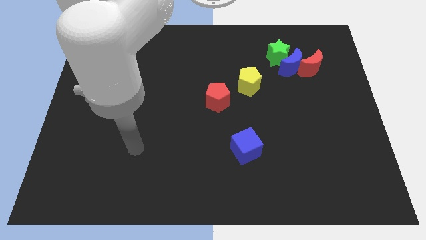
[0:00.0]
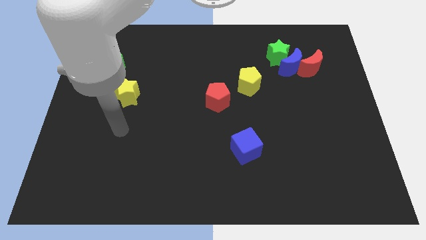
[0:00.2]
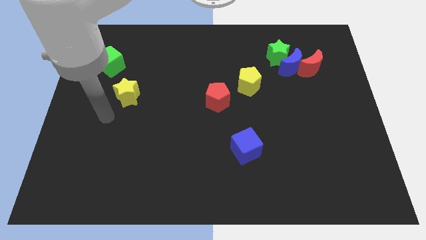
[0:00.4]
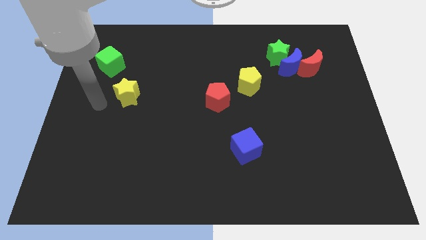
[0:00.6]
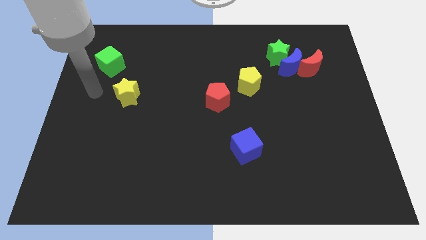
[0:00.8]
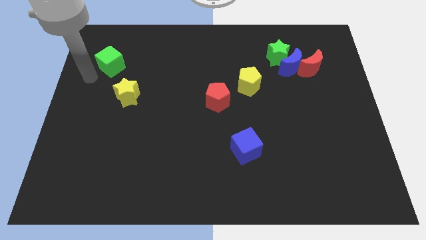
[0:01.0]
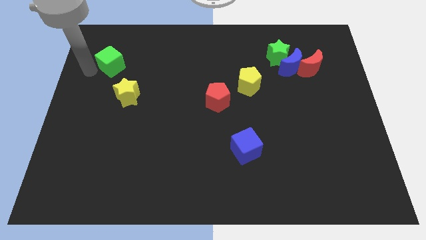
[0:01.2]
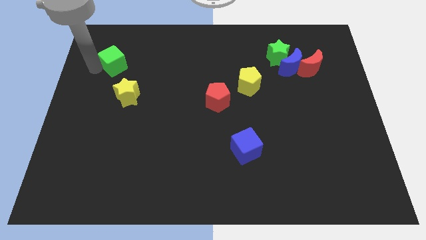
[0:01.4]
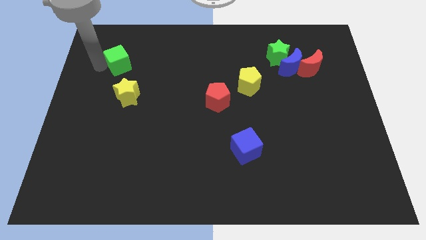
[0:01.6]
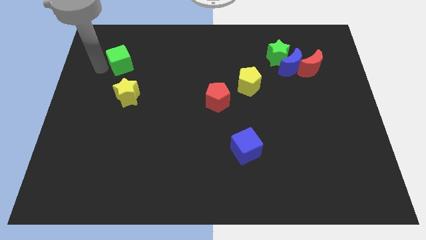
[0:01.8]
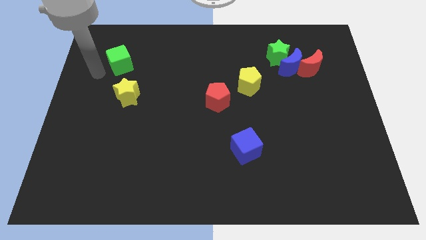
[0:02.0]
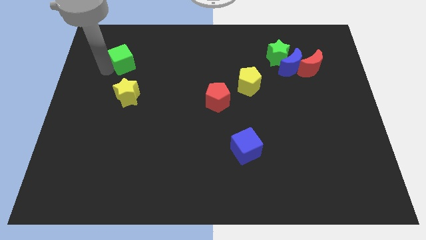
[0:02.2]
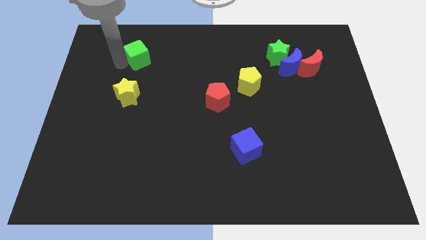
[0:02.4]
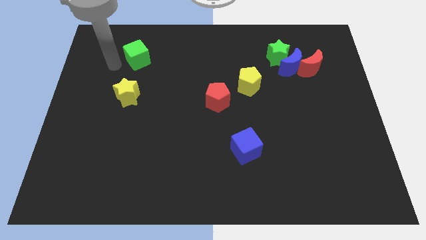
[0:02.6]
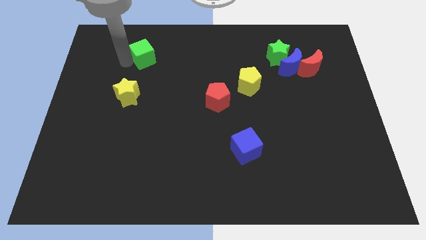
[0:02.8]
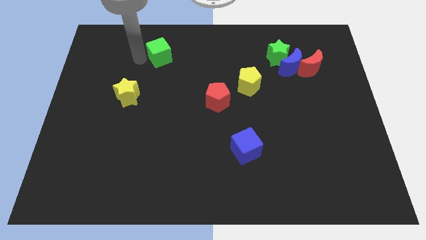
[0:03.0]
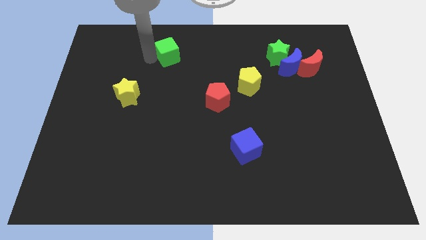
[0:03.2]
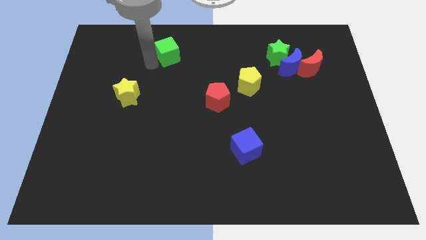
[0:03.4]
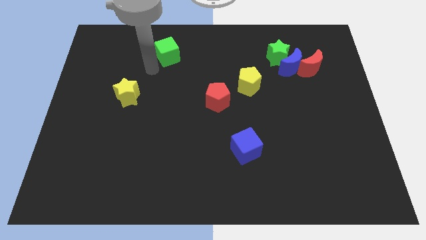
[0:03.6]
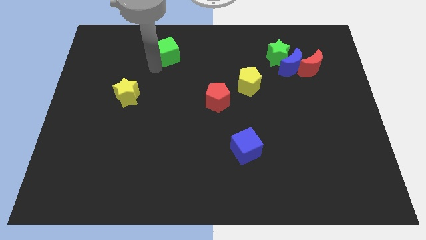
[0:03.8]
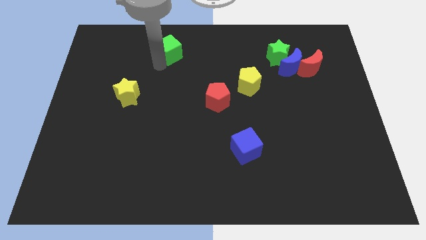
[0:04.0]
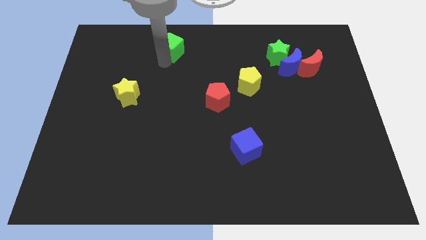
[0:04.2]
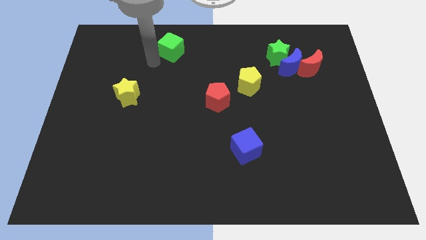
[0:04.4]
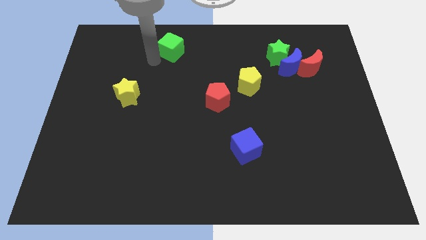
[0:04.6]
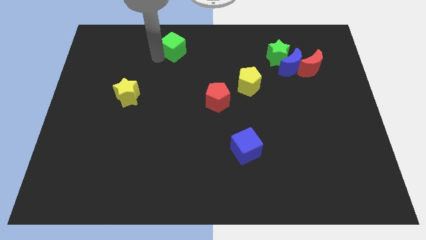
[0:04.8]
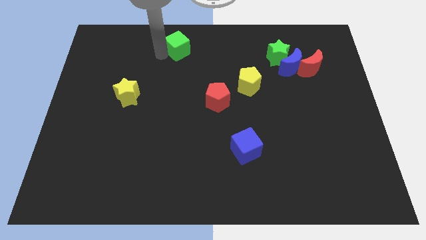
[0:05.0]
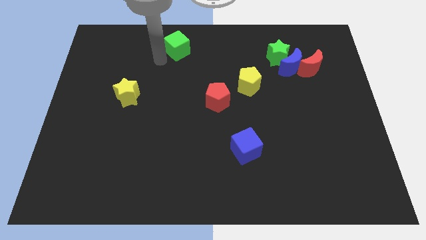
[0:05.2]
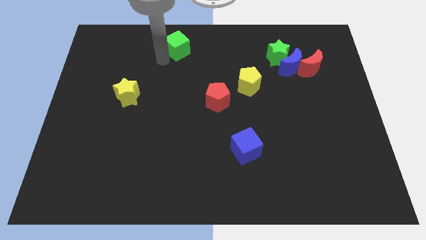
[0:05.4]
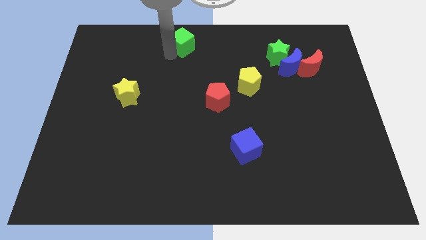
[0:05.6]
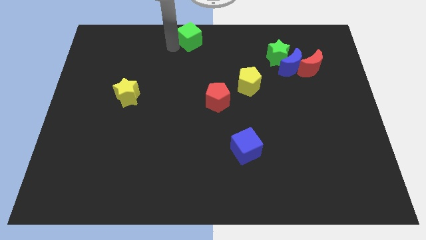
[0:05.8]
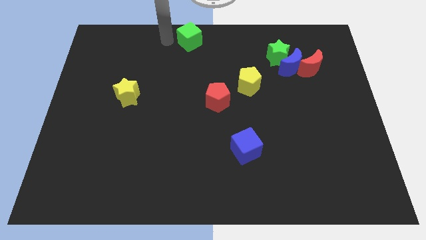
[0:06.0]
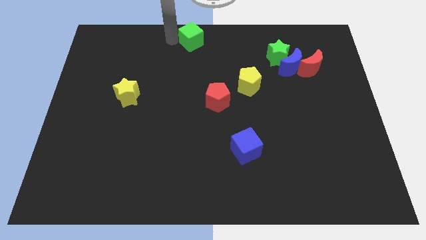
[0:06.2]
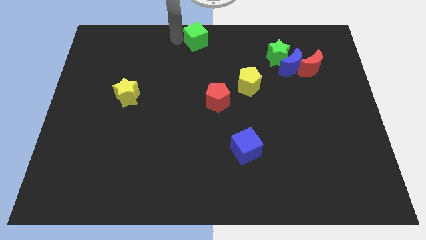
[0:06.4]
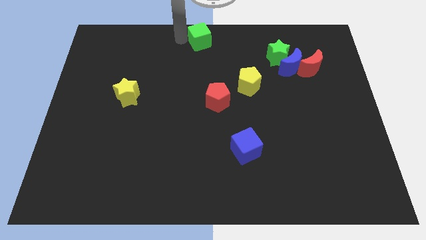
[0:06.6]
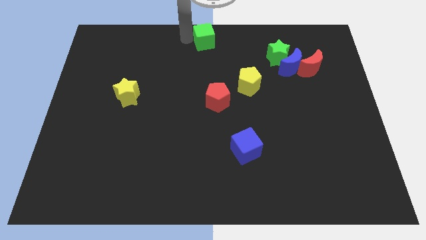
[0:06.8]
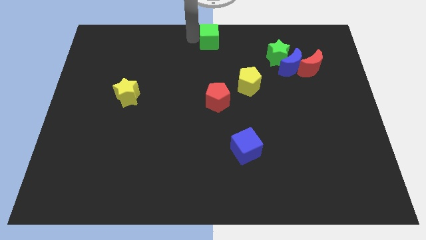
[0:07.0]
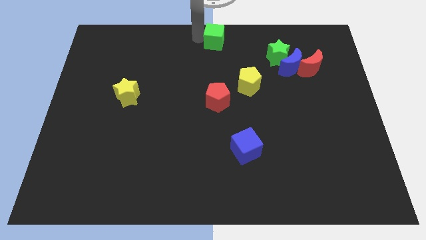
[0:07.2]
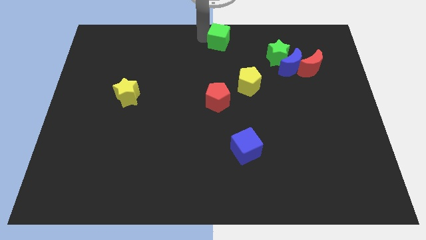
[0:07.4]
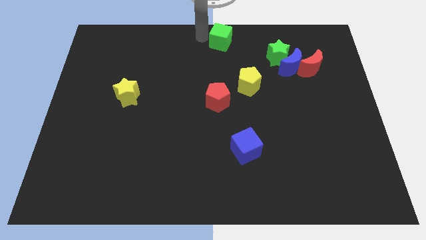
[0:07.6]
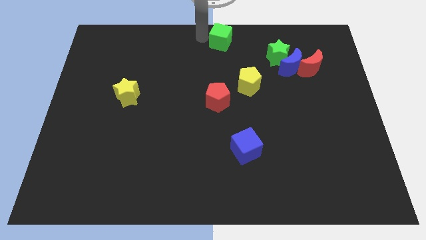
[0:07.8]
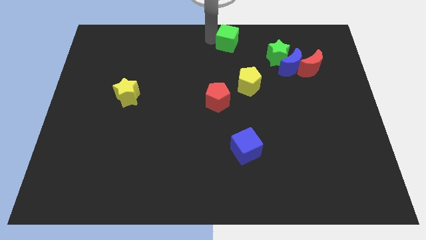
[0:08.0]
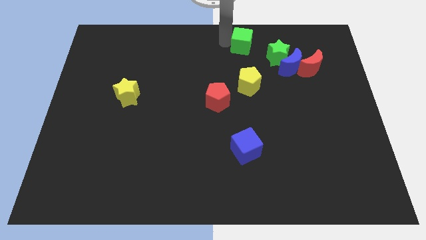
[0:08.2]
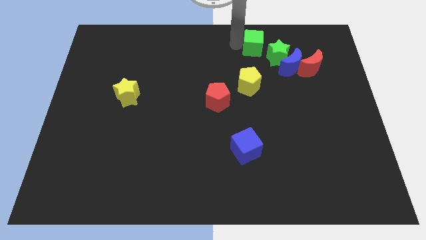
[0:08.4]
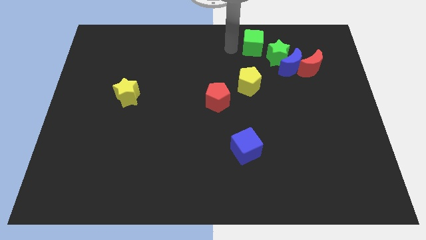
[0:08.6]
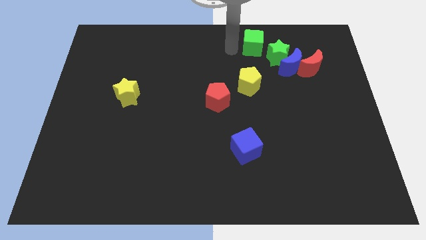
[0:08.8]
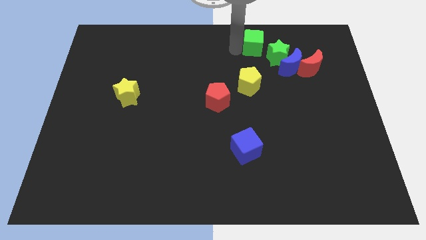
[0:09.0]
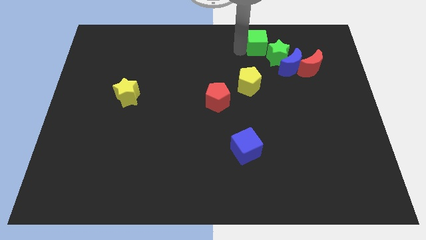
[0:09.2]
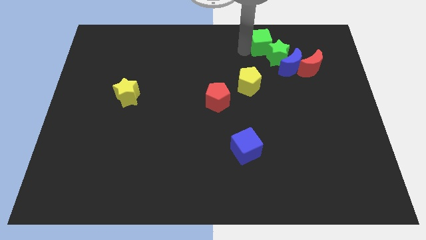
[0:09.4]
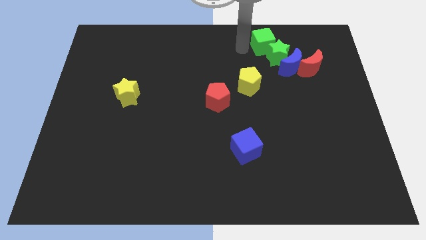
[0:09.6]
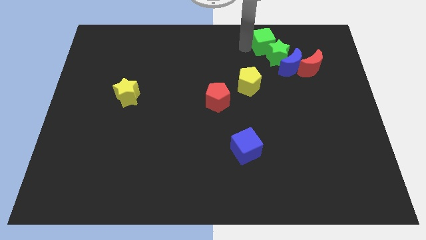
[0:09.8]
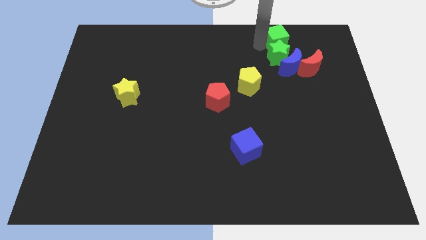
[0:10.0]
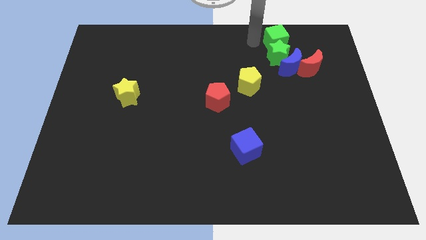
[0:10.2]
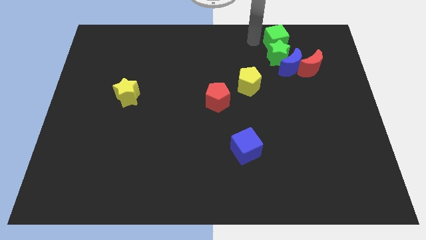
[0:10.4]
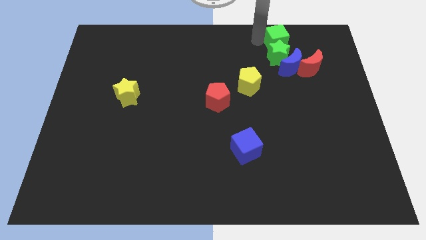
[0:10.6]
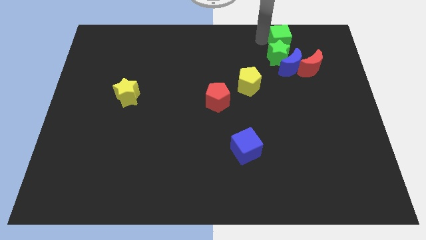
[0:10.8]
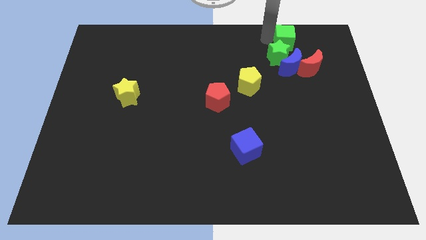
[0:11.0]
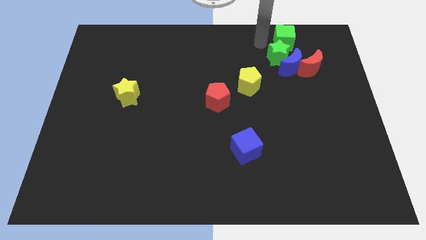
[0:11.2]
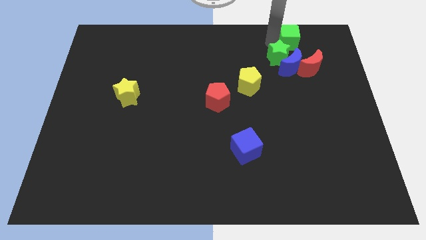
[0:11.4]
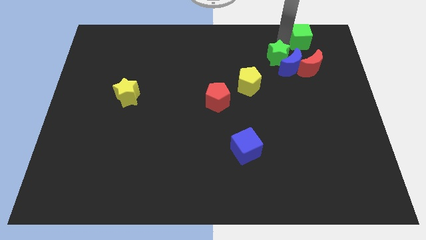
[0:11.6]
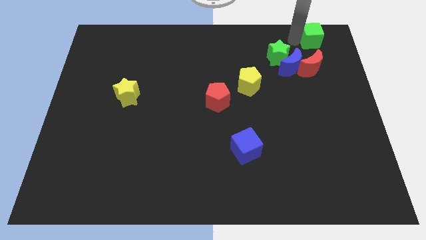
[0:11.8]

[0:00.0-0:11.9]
move the green cube to the upper right corner
